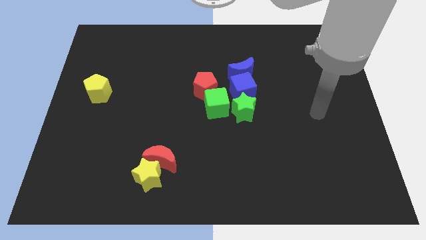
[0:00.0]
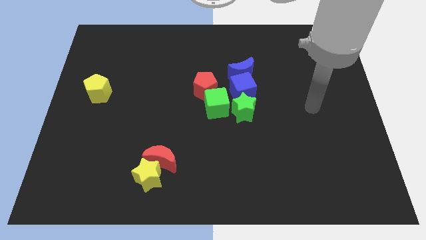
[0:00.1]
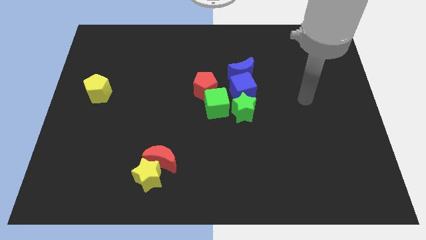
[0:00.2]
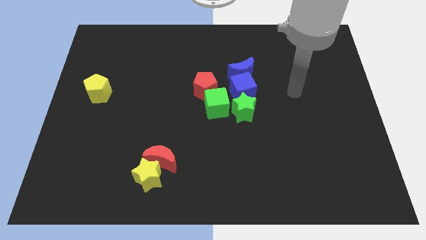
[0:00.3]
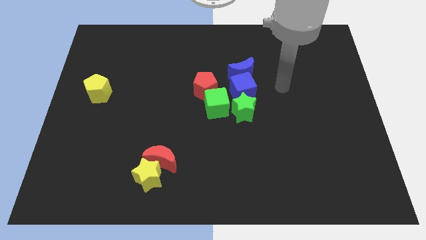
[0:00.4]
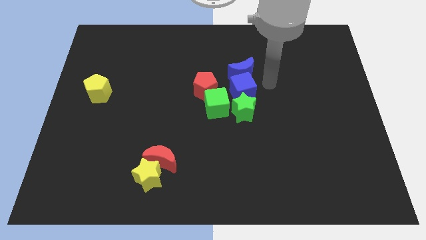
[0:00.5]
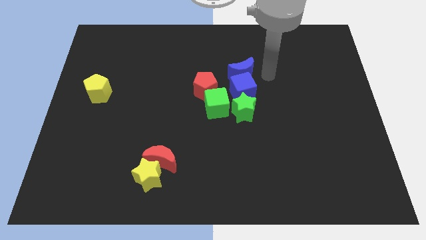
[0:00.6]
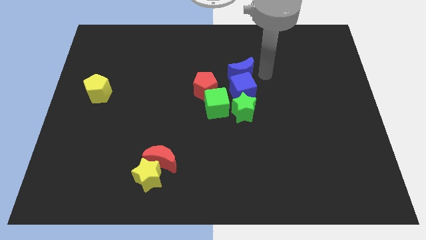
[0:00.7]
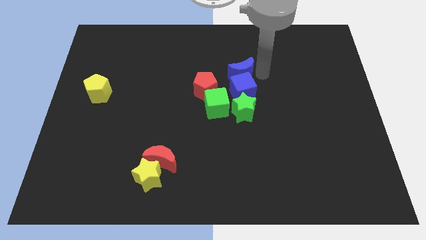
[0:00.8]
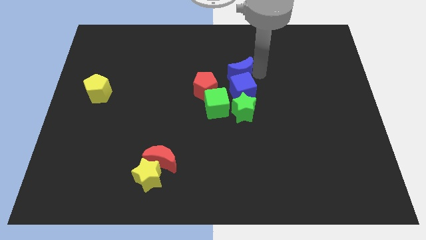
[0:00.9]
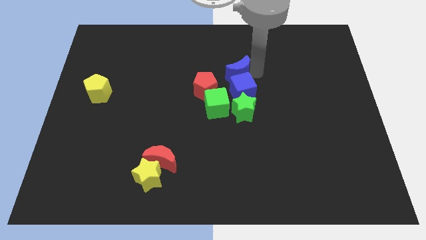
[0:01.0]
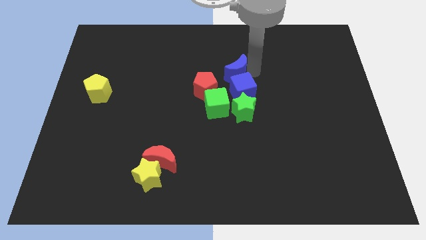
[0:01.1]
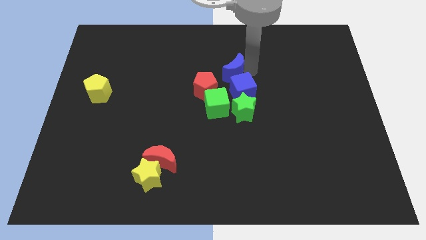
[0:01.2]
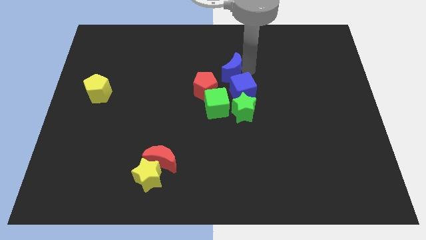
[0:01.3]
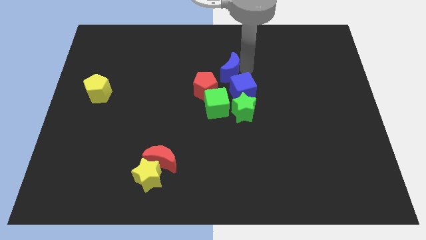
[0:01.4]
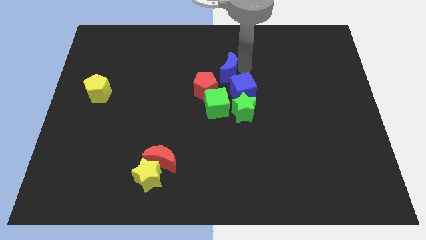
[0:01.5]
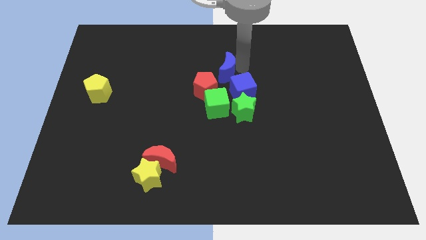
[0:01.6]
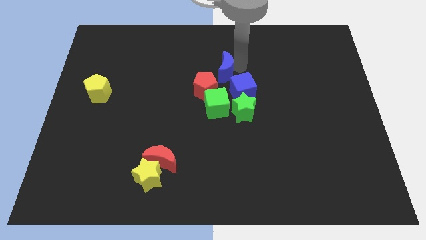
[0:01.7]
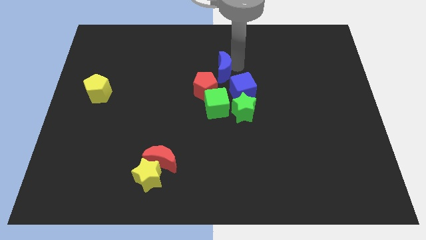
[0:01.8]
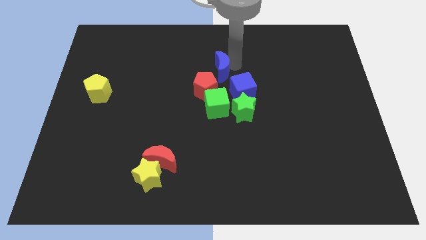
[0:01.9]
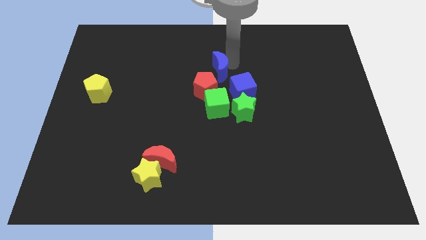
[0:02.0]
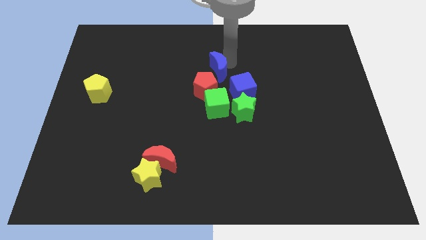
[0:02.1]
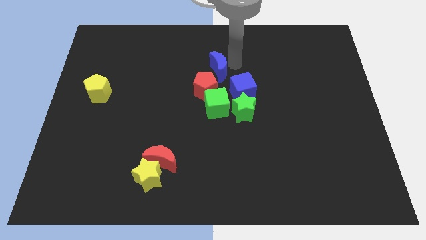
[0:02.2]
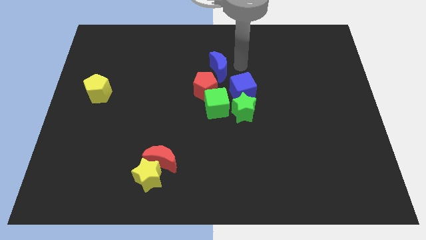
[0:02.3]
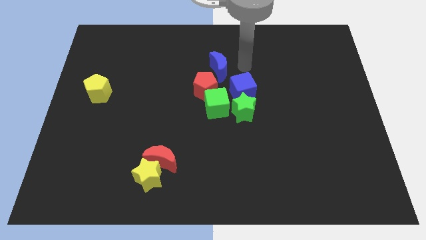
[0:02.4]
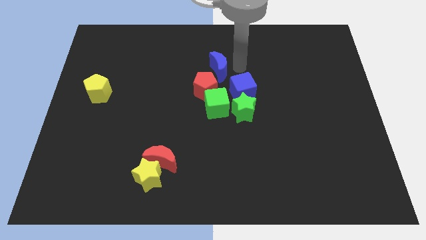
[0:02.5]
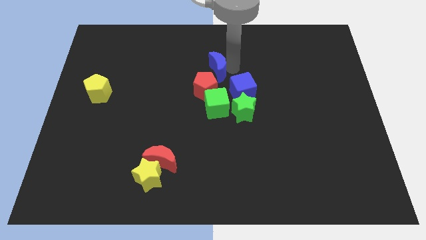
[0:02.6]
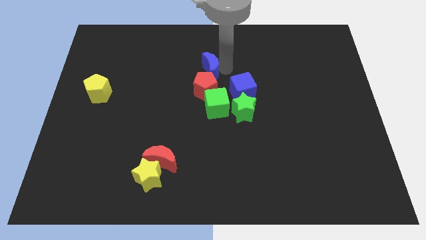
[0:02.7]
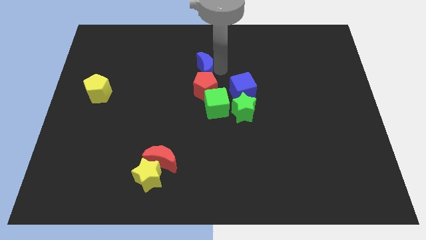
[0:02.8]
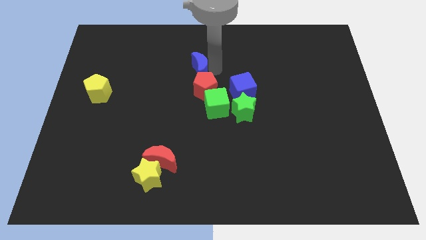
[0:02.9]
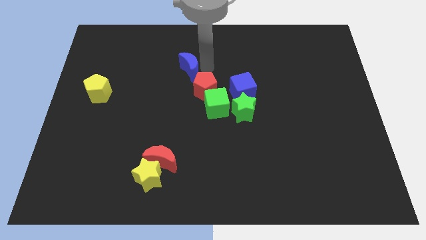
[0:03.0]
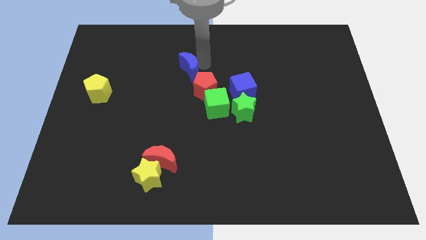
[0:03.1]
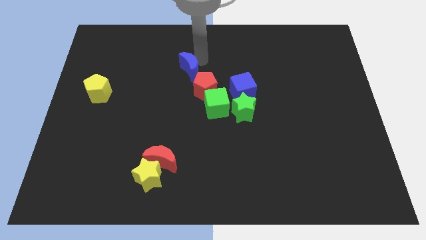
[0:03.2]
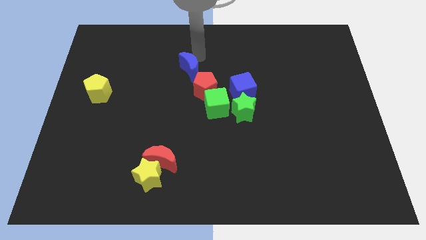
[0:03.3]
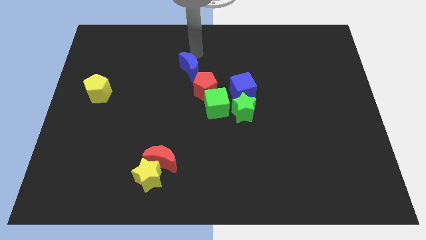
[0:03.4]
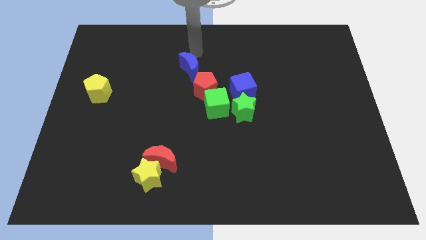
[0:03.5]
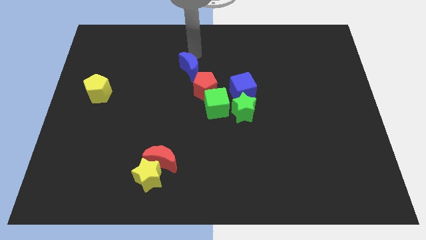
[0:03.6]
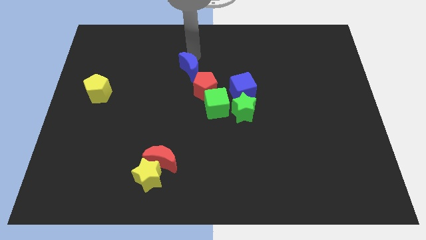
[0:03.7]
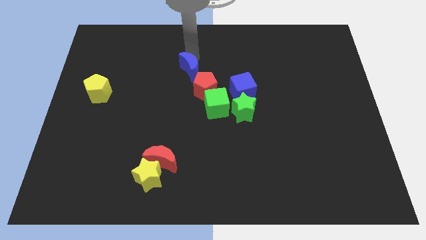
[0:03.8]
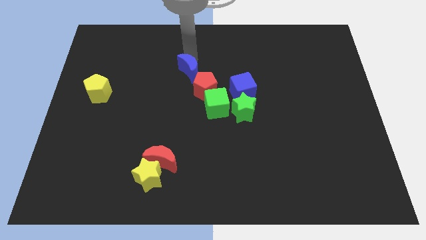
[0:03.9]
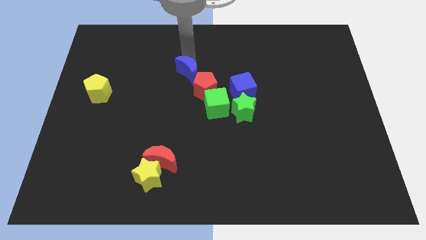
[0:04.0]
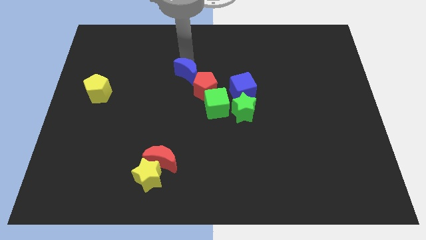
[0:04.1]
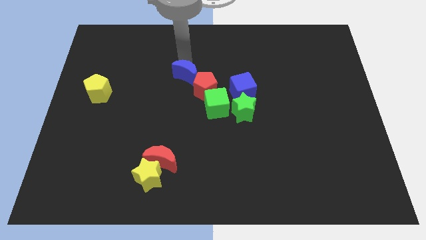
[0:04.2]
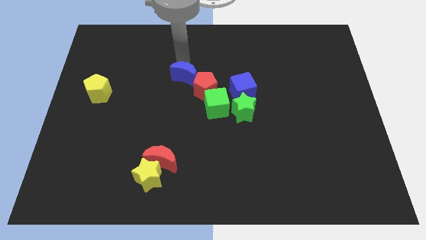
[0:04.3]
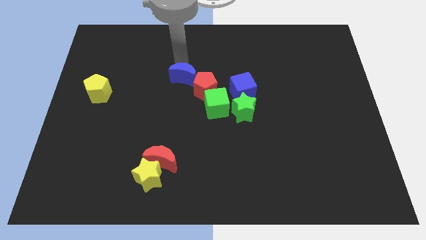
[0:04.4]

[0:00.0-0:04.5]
push the blue moon somewhat downwards and then to the left

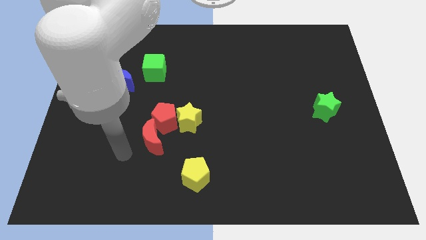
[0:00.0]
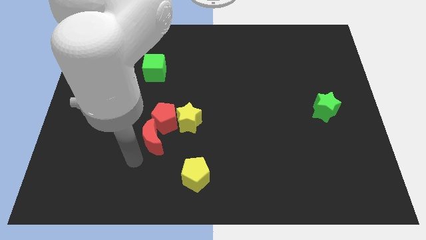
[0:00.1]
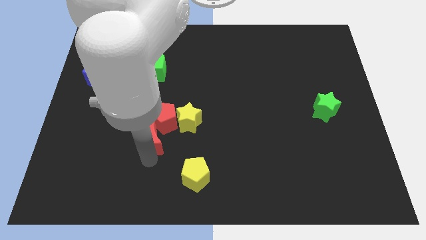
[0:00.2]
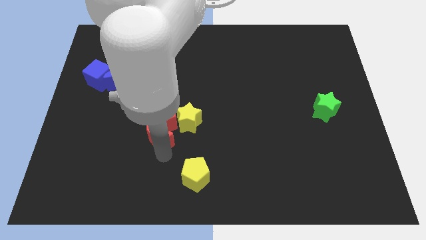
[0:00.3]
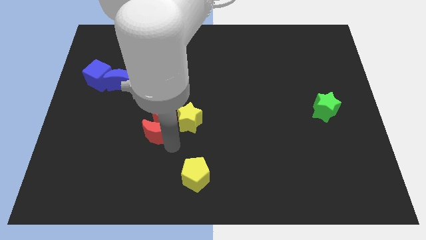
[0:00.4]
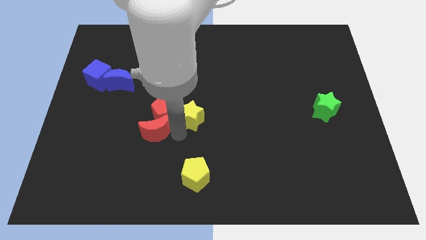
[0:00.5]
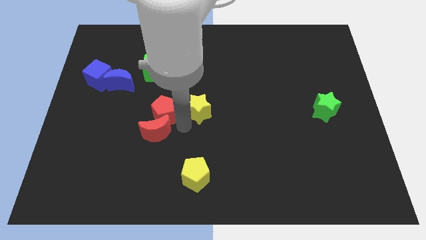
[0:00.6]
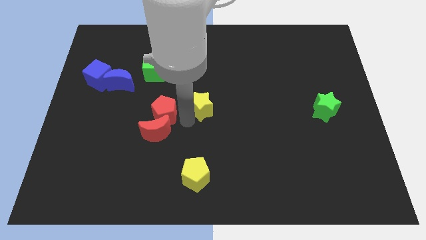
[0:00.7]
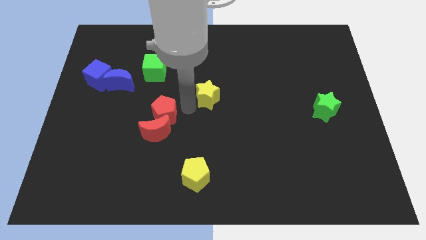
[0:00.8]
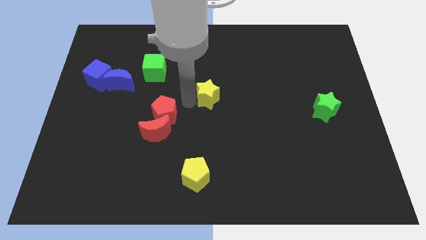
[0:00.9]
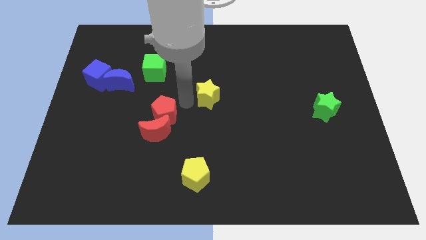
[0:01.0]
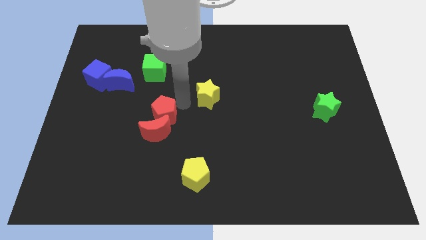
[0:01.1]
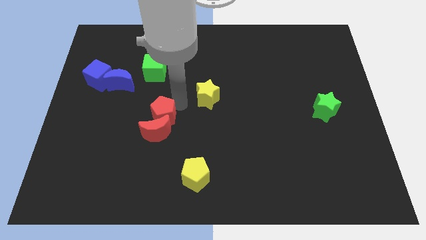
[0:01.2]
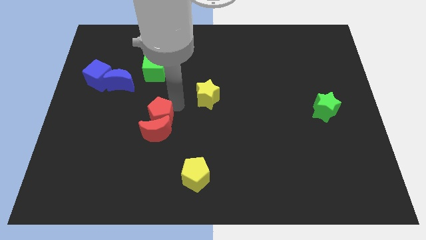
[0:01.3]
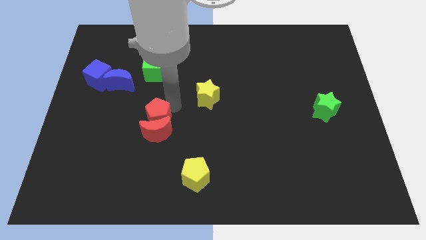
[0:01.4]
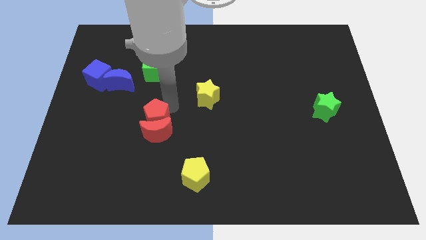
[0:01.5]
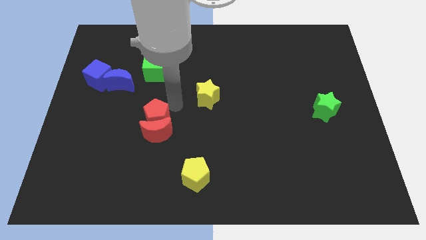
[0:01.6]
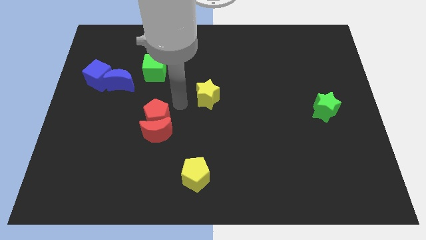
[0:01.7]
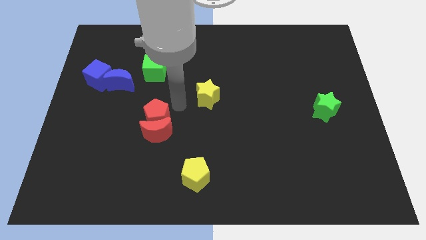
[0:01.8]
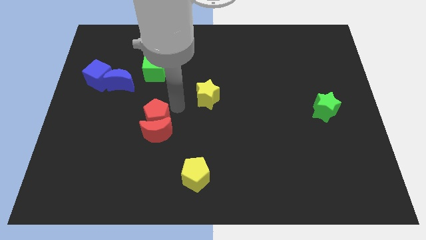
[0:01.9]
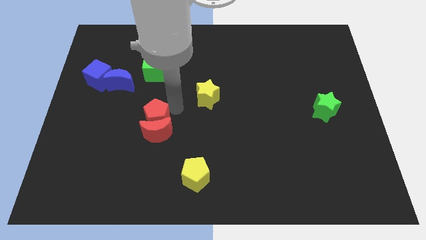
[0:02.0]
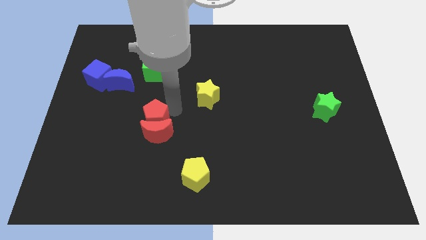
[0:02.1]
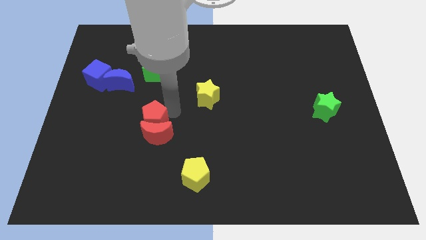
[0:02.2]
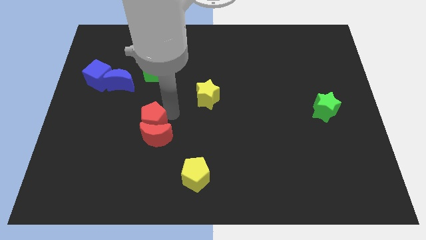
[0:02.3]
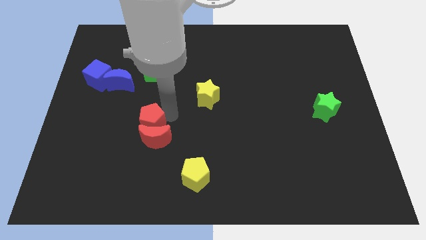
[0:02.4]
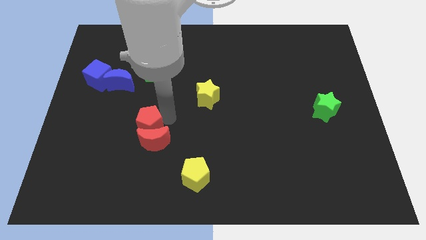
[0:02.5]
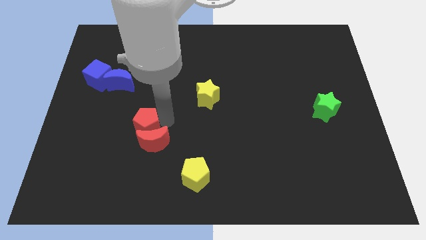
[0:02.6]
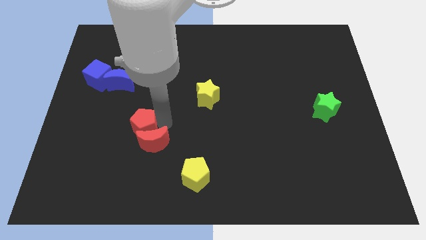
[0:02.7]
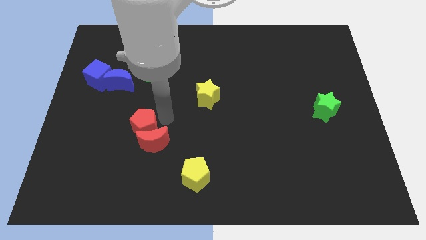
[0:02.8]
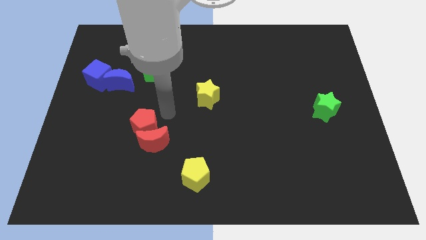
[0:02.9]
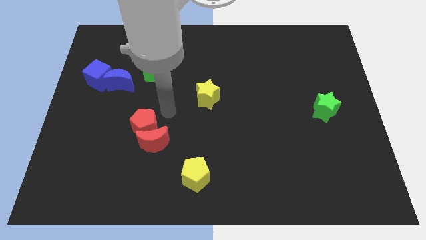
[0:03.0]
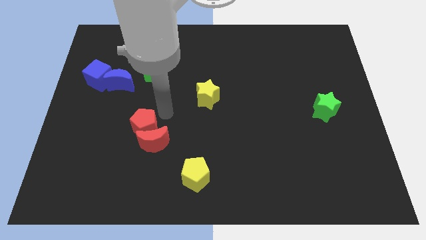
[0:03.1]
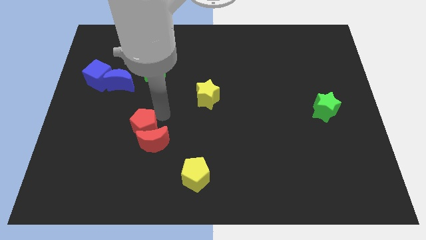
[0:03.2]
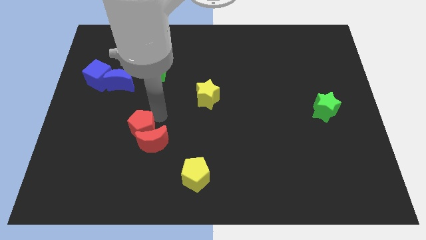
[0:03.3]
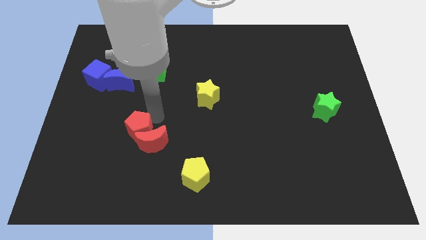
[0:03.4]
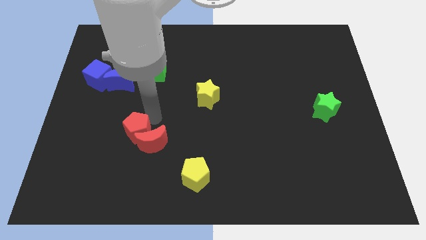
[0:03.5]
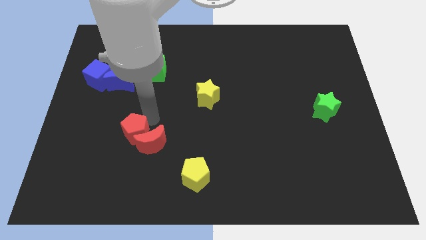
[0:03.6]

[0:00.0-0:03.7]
slightly slide the red pentagon down and then to the left

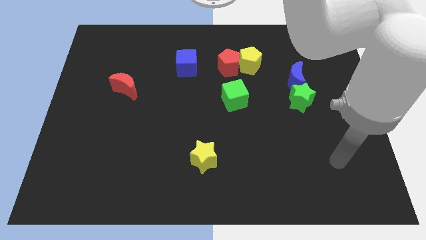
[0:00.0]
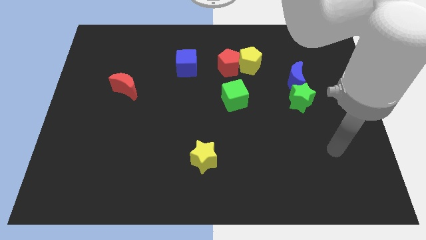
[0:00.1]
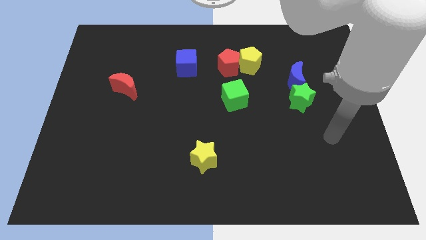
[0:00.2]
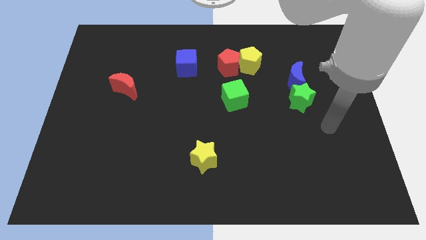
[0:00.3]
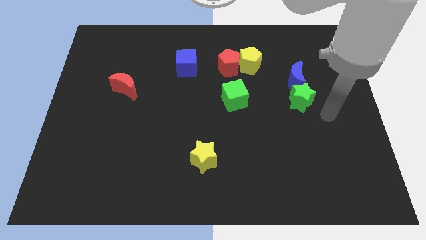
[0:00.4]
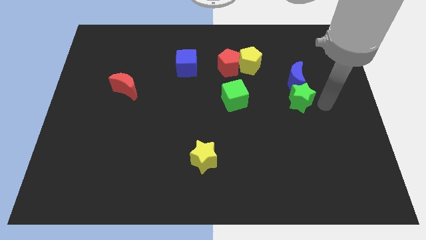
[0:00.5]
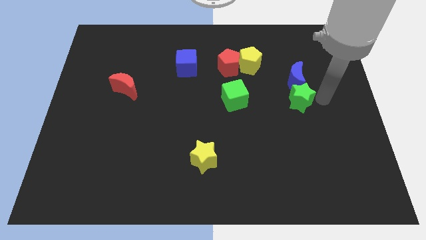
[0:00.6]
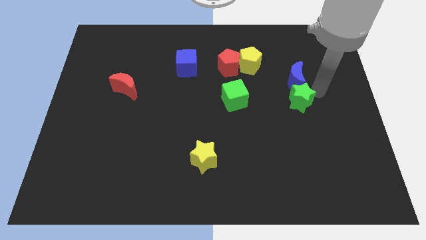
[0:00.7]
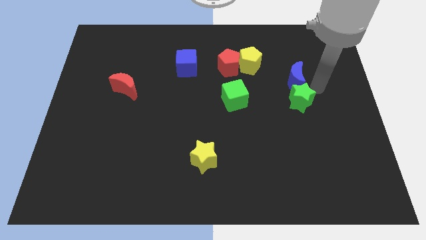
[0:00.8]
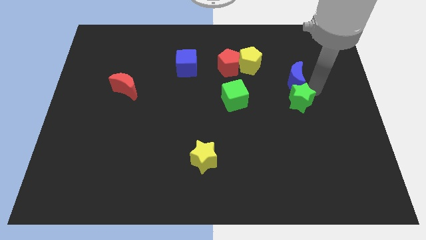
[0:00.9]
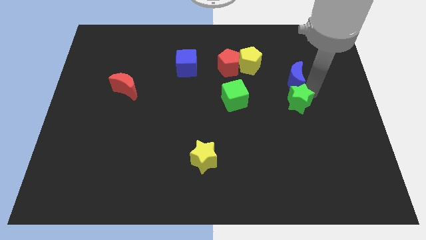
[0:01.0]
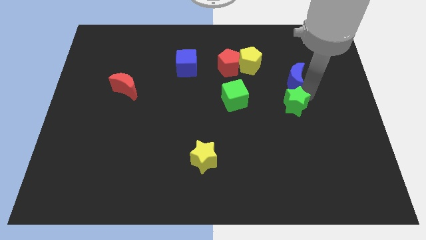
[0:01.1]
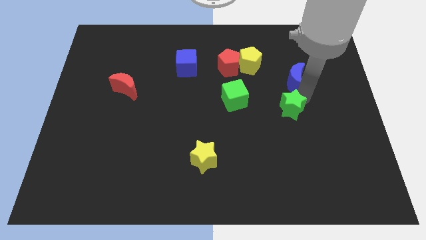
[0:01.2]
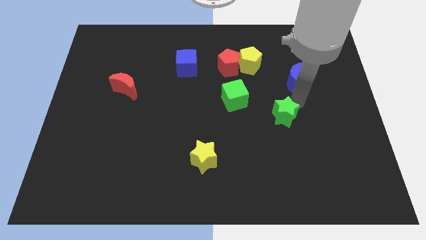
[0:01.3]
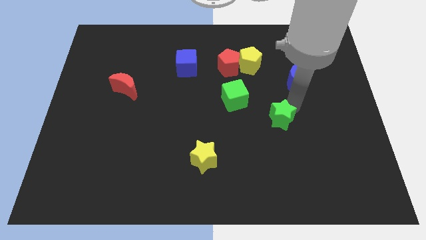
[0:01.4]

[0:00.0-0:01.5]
slightly move the green star down and to the left
